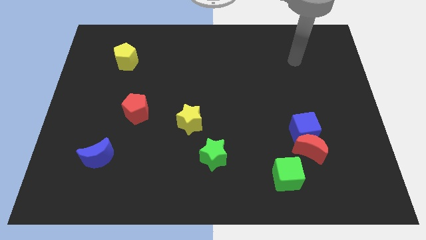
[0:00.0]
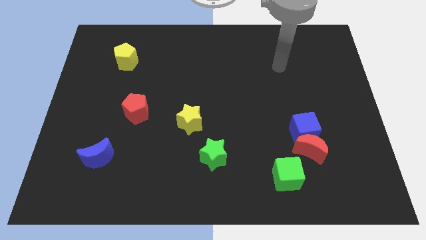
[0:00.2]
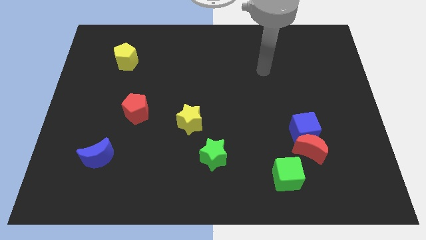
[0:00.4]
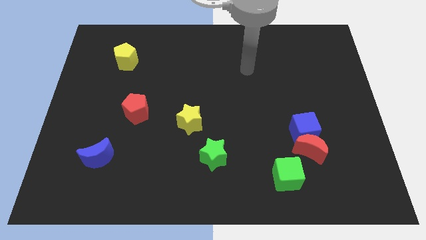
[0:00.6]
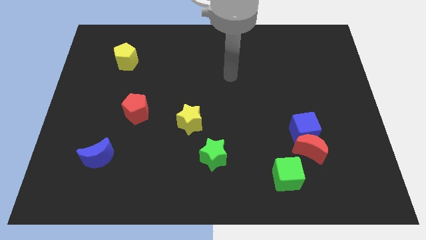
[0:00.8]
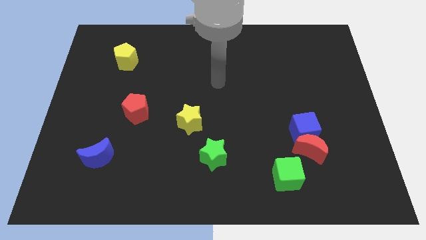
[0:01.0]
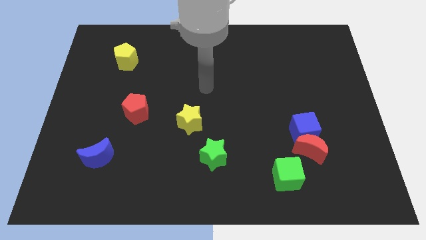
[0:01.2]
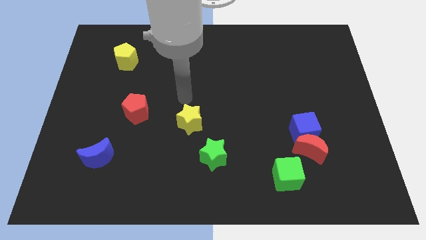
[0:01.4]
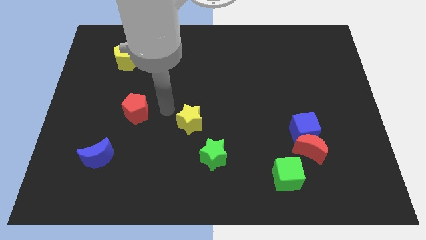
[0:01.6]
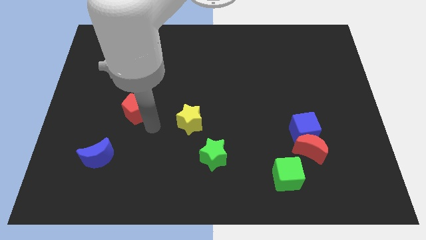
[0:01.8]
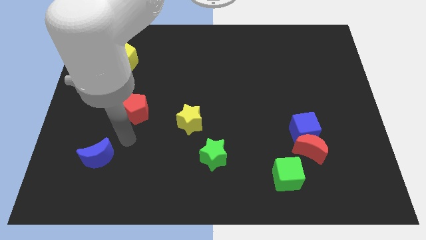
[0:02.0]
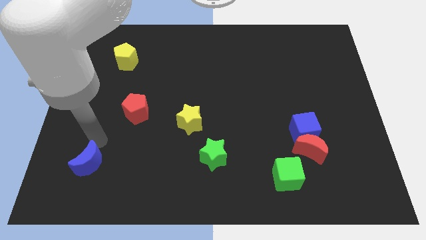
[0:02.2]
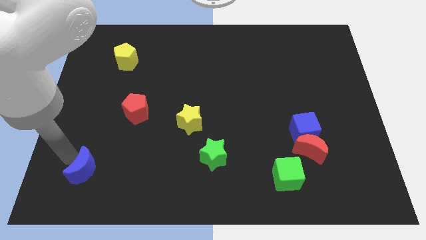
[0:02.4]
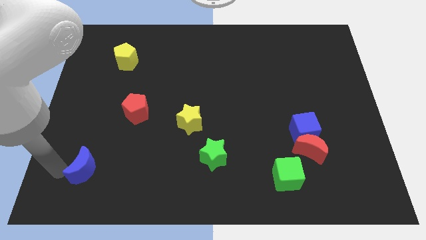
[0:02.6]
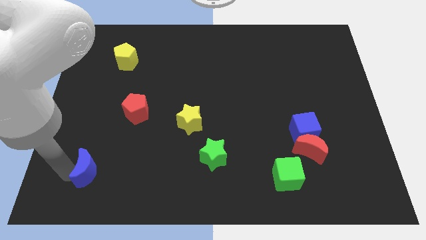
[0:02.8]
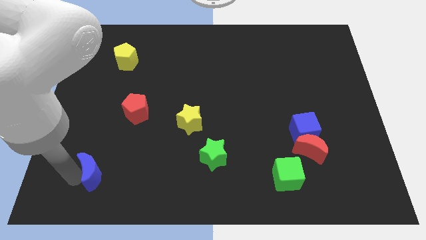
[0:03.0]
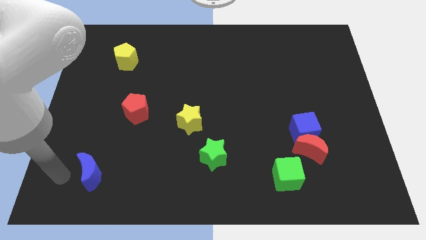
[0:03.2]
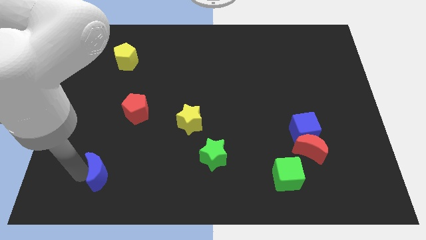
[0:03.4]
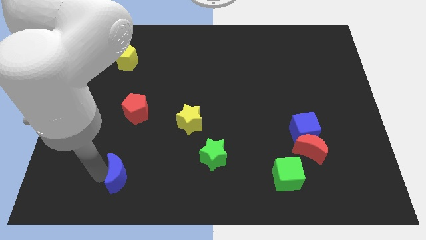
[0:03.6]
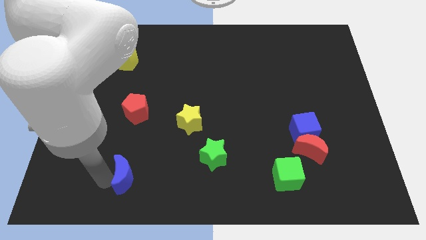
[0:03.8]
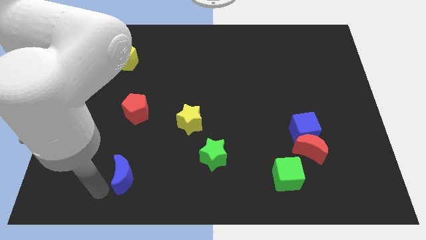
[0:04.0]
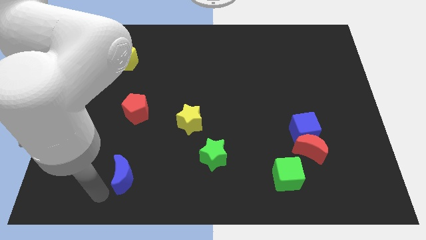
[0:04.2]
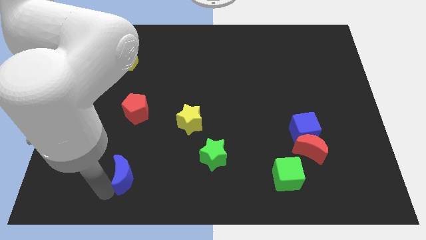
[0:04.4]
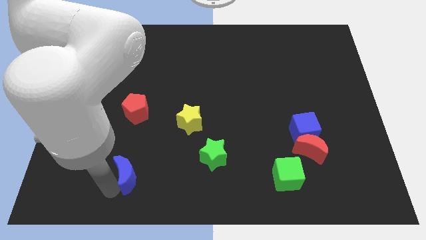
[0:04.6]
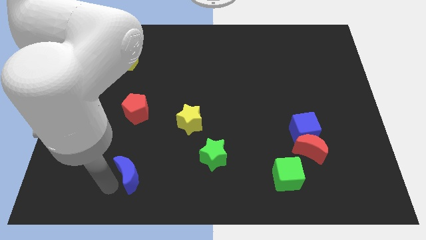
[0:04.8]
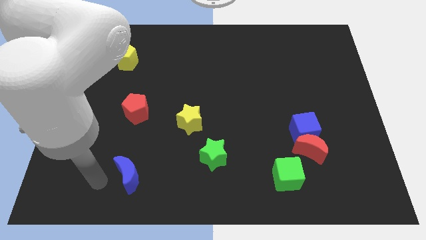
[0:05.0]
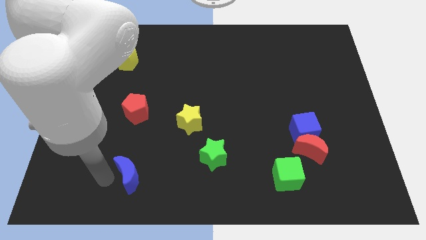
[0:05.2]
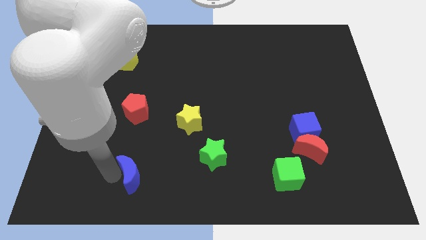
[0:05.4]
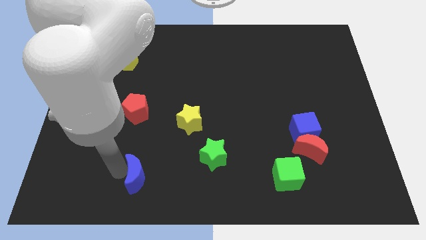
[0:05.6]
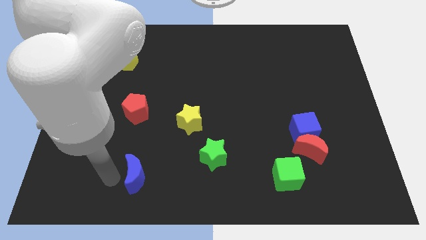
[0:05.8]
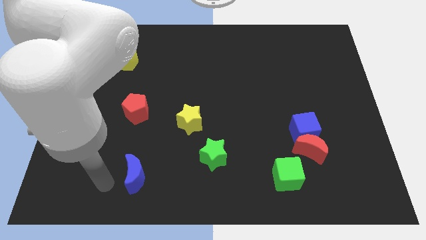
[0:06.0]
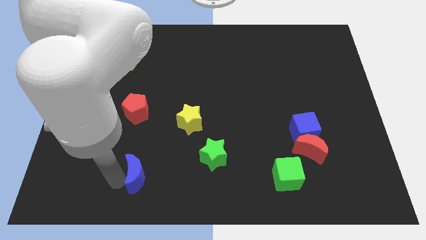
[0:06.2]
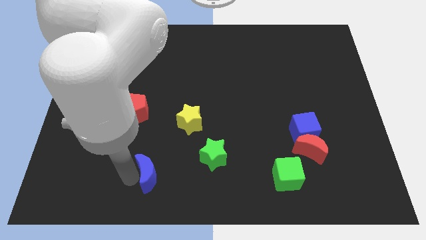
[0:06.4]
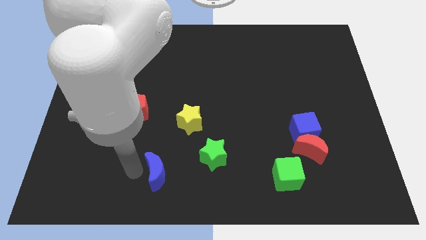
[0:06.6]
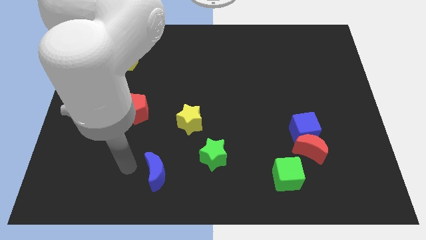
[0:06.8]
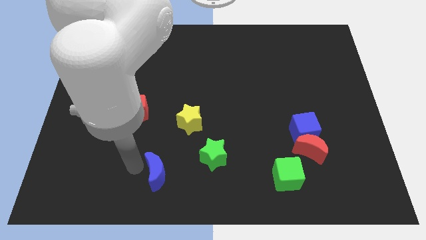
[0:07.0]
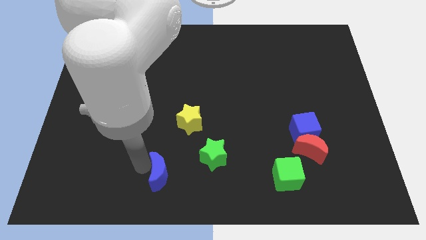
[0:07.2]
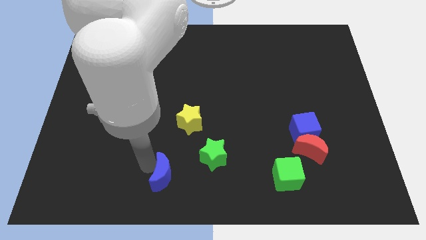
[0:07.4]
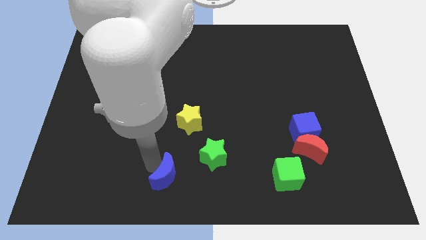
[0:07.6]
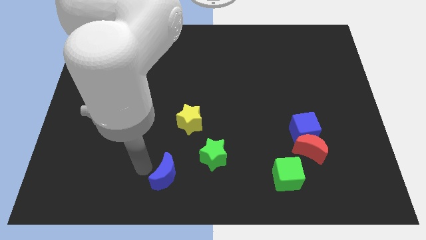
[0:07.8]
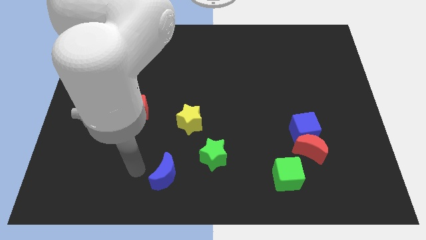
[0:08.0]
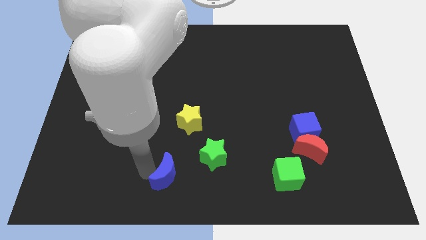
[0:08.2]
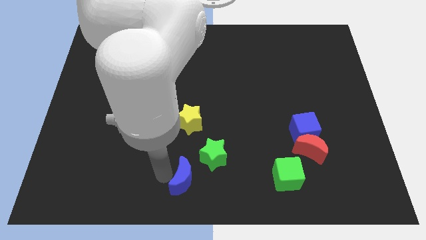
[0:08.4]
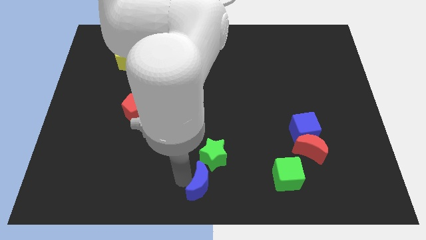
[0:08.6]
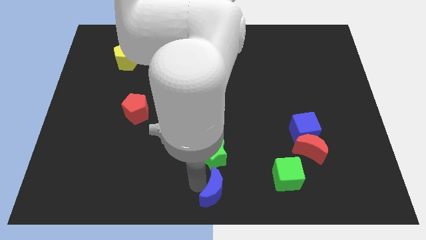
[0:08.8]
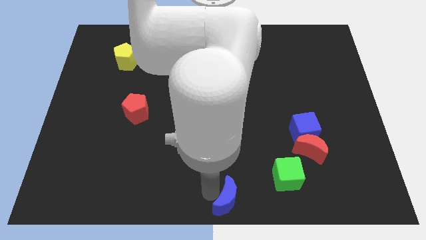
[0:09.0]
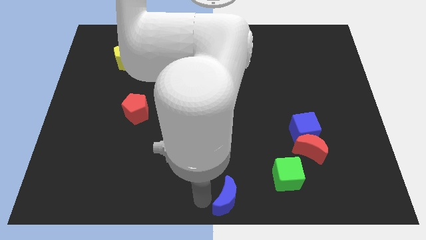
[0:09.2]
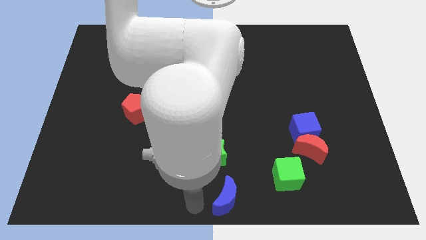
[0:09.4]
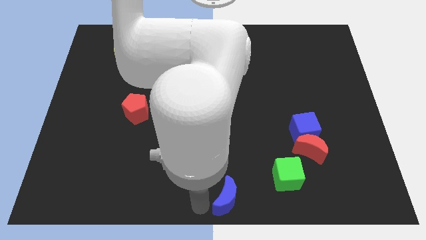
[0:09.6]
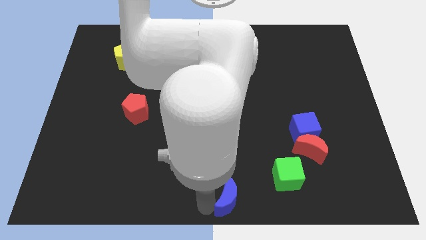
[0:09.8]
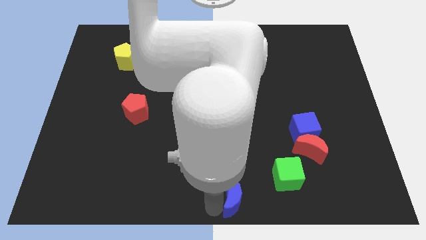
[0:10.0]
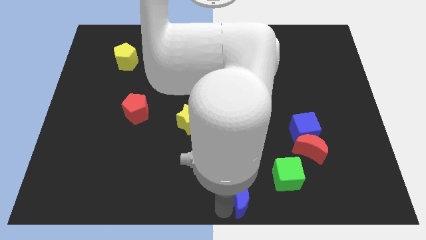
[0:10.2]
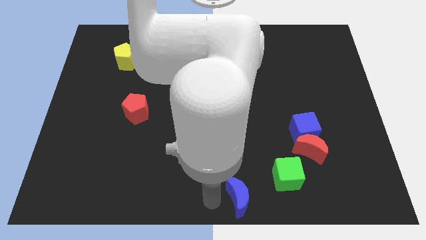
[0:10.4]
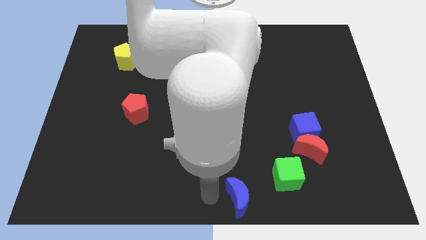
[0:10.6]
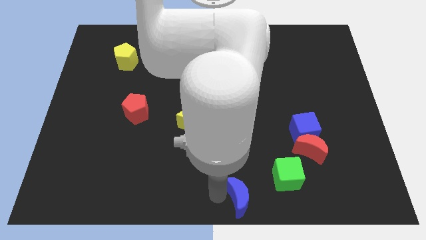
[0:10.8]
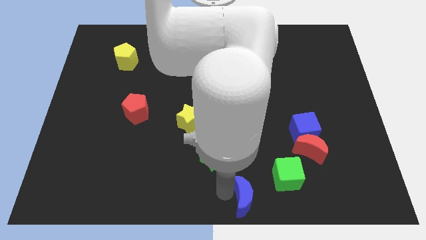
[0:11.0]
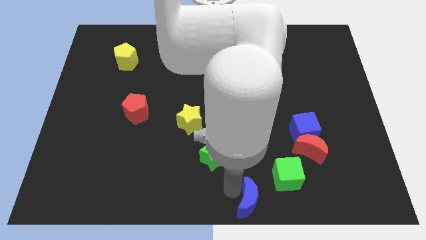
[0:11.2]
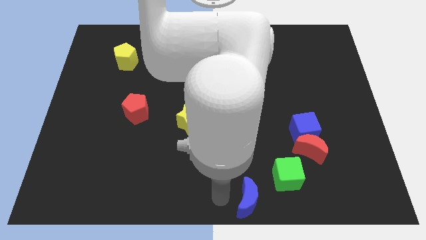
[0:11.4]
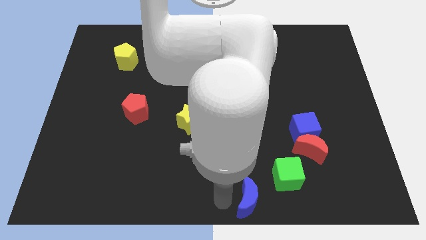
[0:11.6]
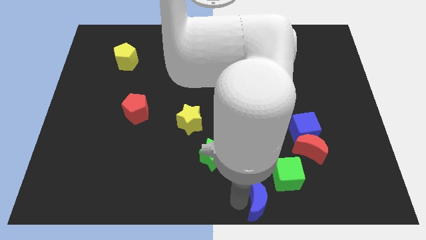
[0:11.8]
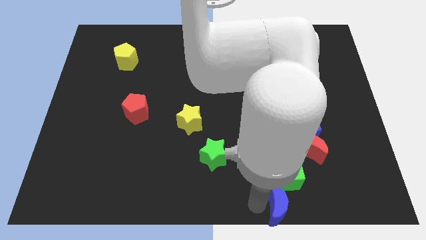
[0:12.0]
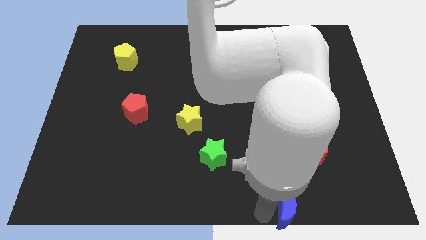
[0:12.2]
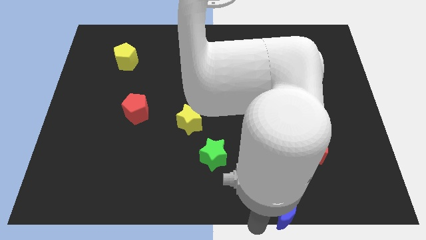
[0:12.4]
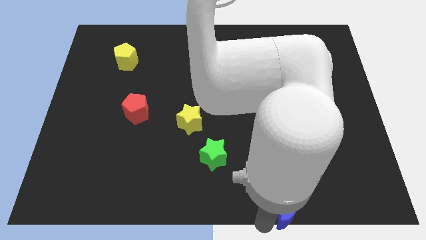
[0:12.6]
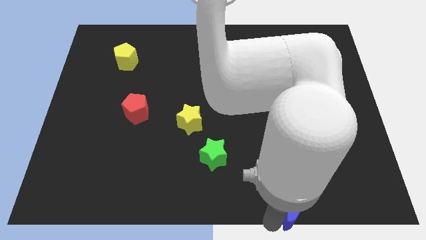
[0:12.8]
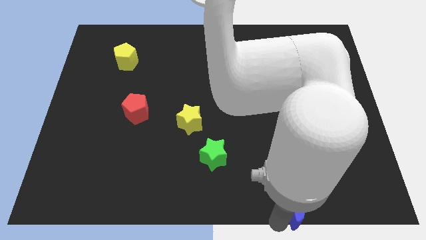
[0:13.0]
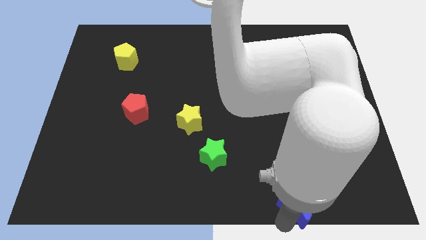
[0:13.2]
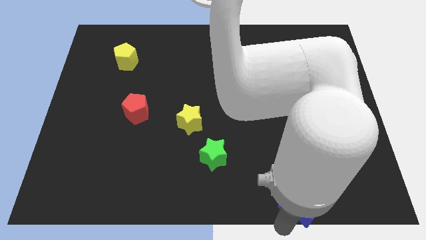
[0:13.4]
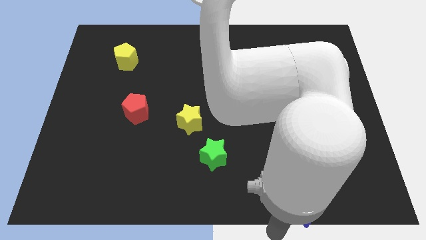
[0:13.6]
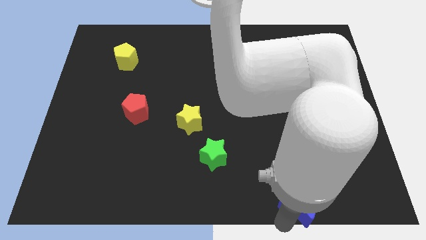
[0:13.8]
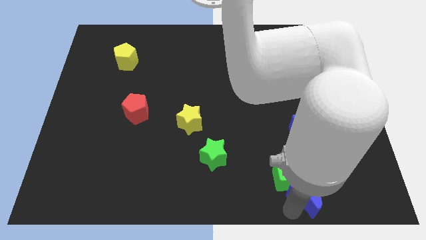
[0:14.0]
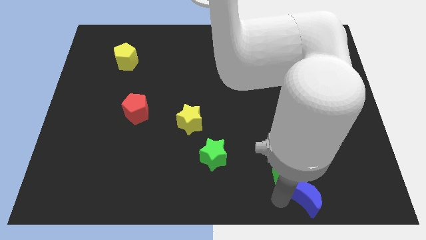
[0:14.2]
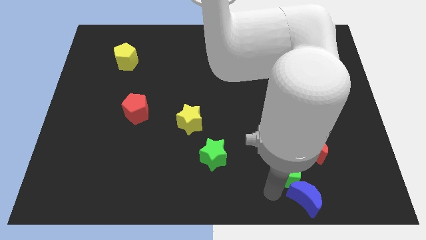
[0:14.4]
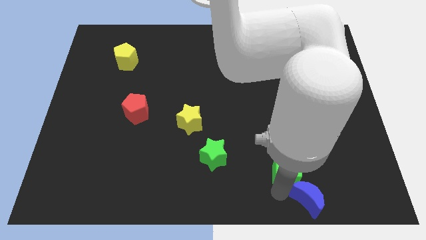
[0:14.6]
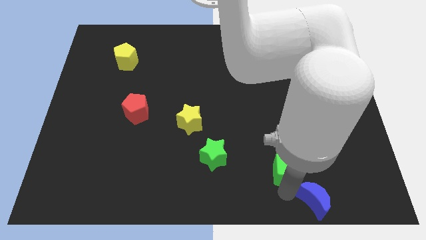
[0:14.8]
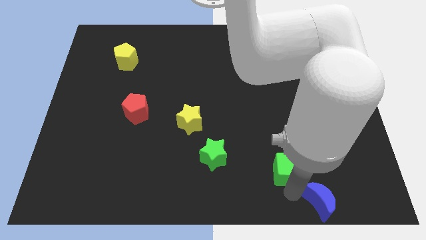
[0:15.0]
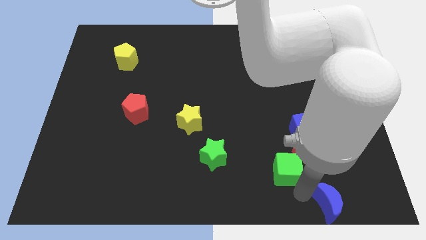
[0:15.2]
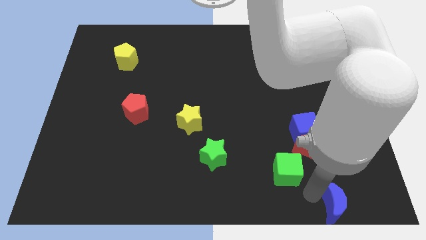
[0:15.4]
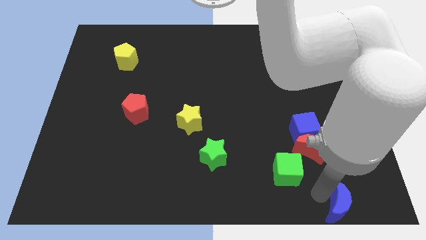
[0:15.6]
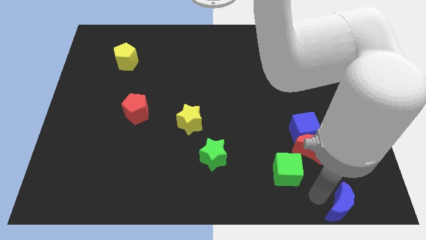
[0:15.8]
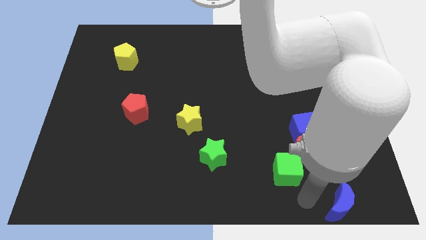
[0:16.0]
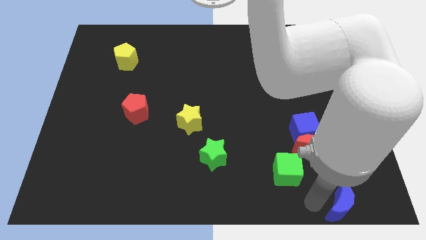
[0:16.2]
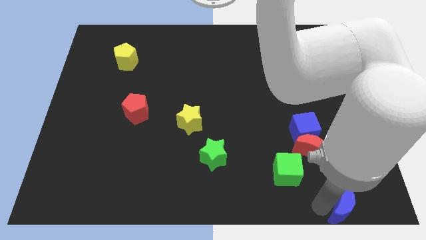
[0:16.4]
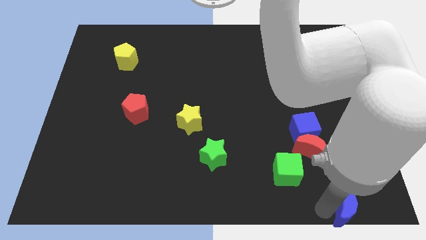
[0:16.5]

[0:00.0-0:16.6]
put the blue moon to the bottom right
